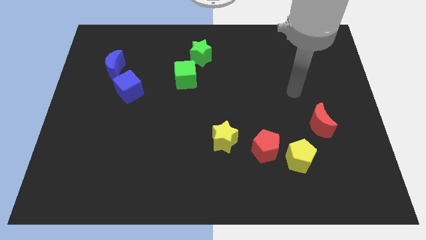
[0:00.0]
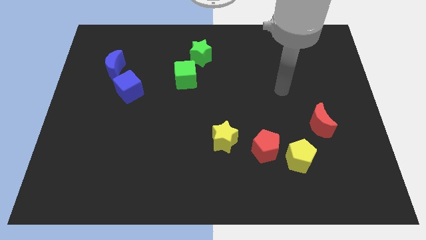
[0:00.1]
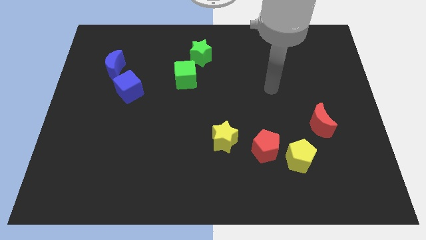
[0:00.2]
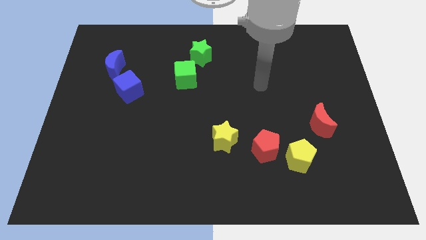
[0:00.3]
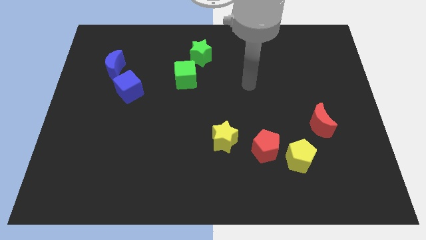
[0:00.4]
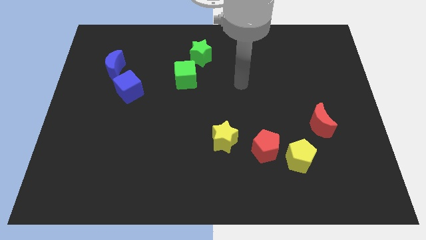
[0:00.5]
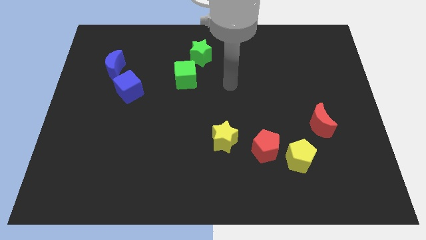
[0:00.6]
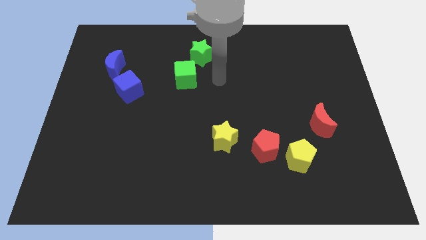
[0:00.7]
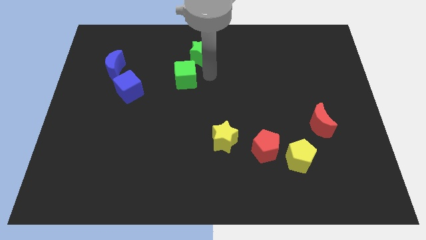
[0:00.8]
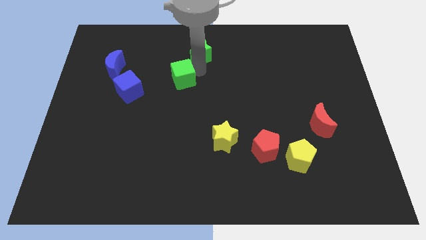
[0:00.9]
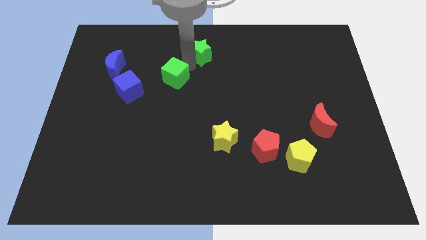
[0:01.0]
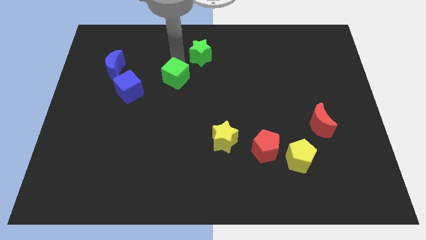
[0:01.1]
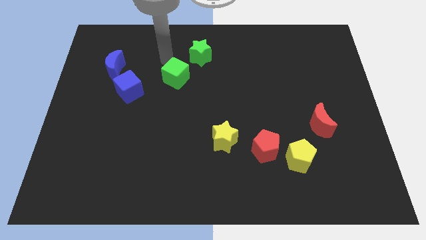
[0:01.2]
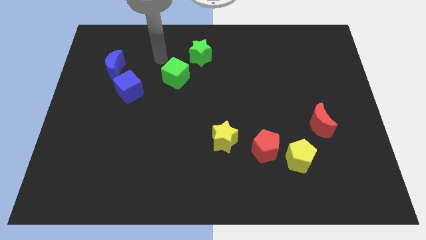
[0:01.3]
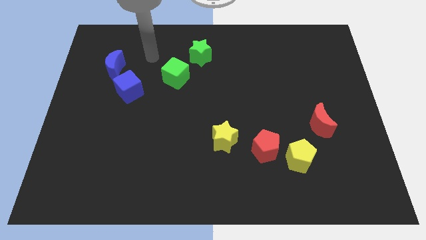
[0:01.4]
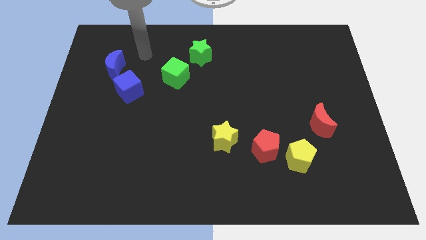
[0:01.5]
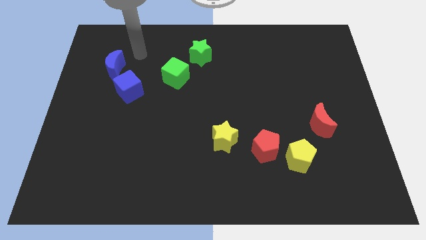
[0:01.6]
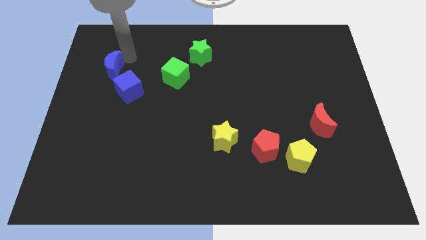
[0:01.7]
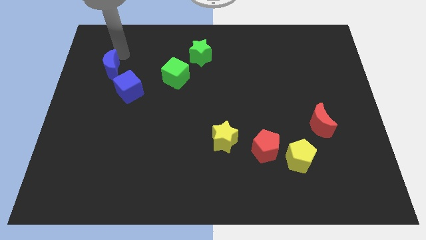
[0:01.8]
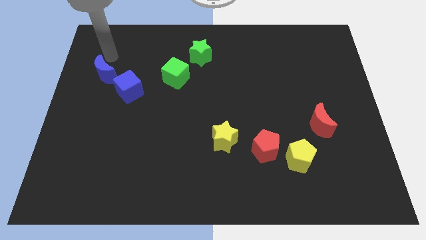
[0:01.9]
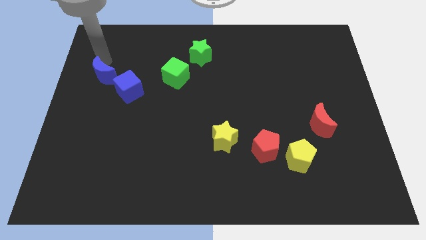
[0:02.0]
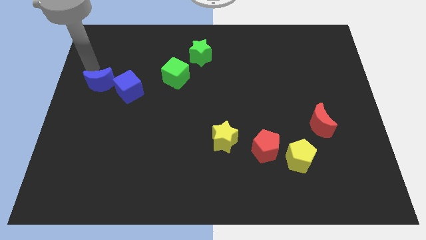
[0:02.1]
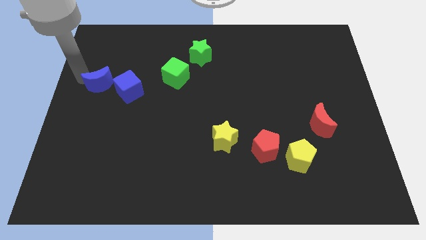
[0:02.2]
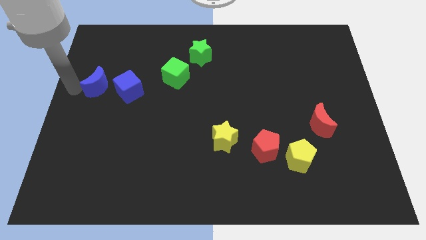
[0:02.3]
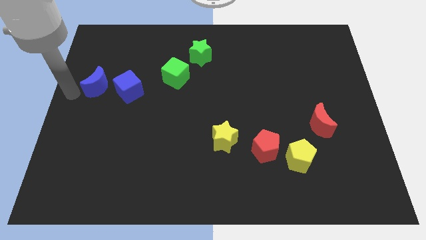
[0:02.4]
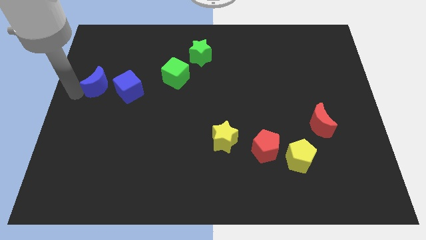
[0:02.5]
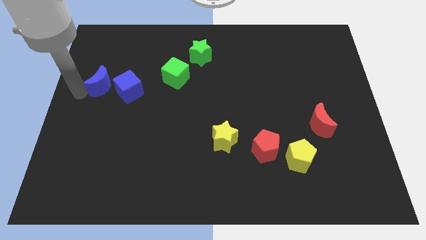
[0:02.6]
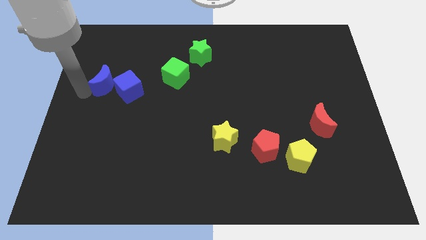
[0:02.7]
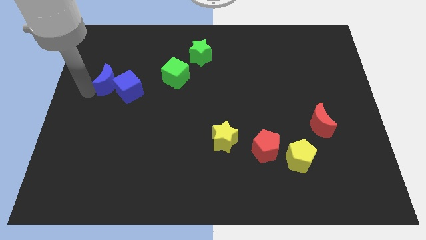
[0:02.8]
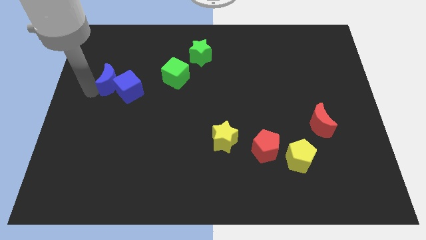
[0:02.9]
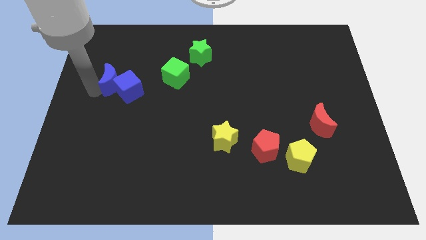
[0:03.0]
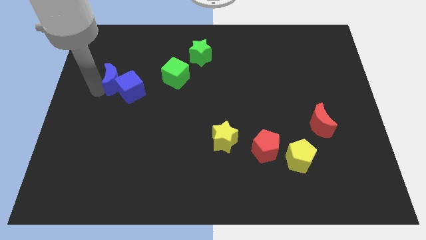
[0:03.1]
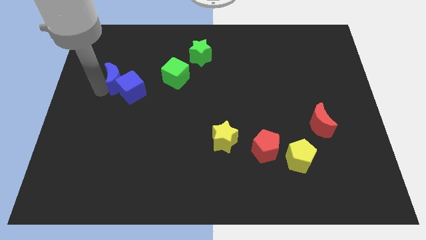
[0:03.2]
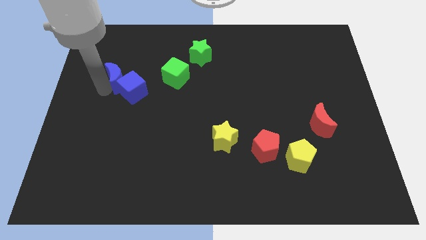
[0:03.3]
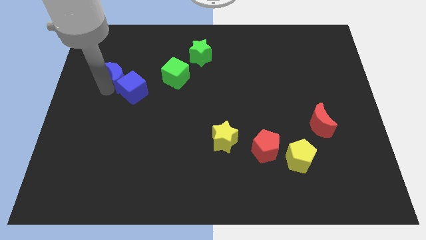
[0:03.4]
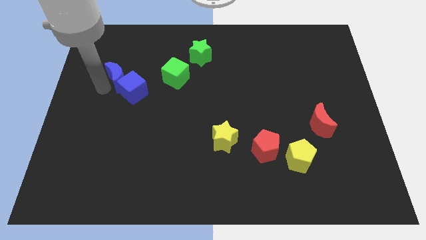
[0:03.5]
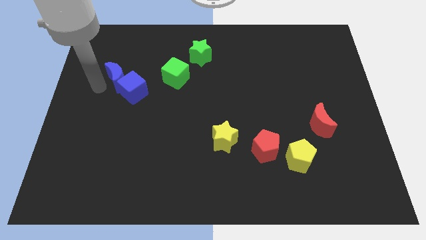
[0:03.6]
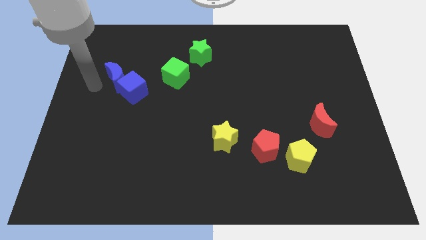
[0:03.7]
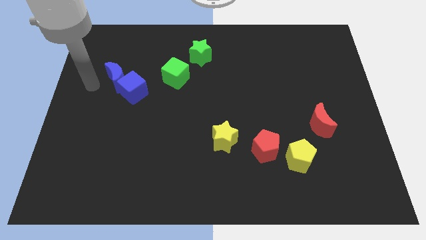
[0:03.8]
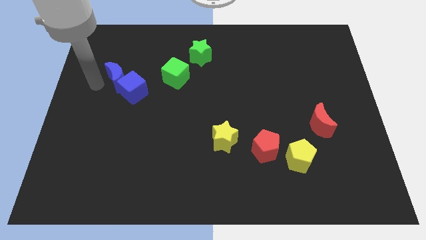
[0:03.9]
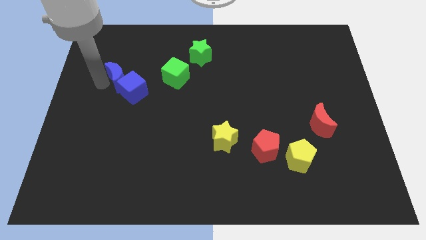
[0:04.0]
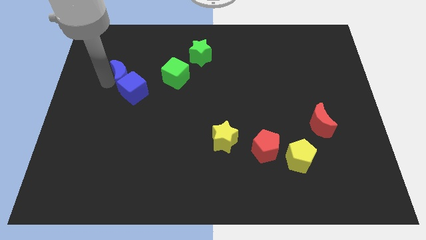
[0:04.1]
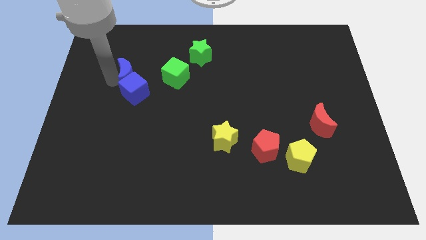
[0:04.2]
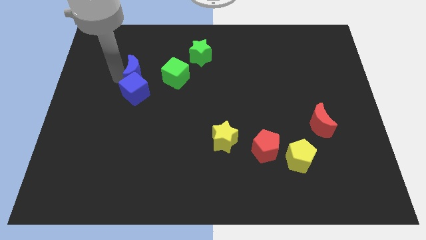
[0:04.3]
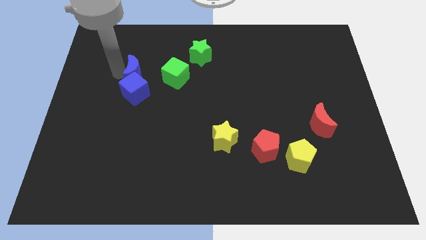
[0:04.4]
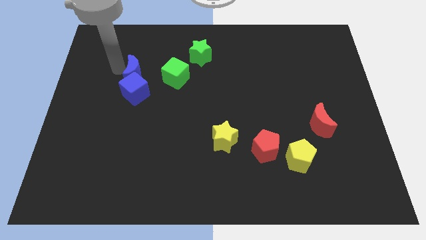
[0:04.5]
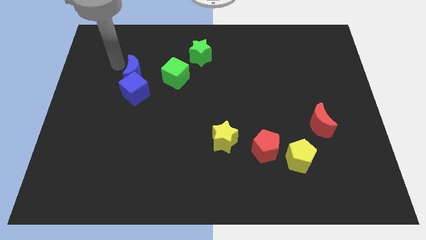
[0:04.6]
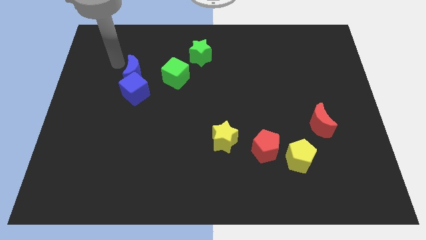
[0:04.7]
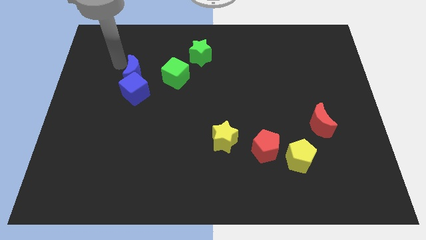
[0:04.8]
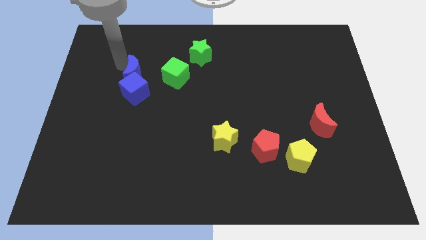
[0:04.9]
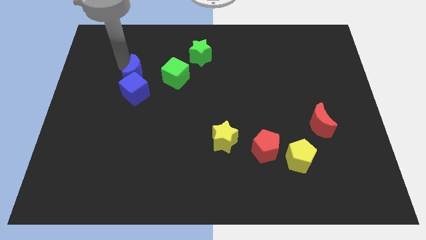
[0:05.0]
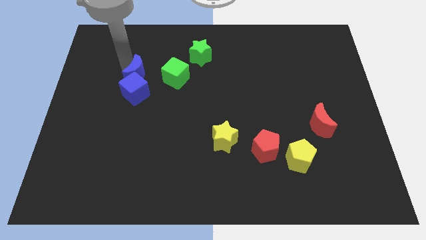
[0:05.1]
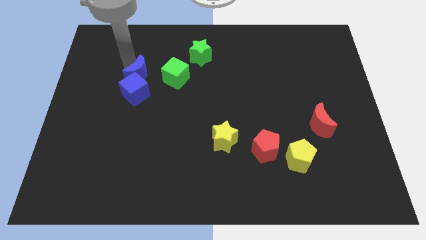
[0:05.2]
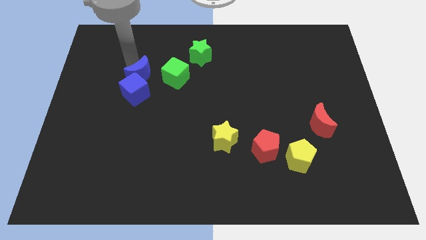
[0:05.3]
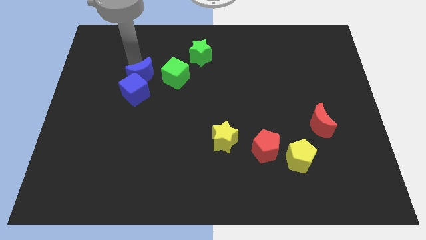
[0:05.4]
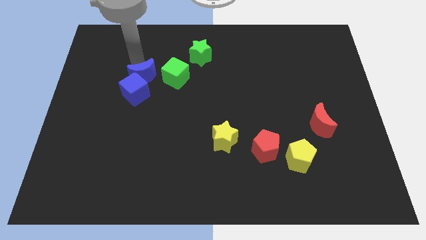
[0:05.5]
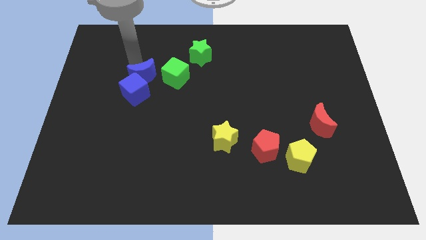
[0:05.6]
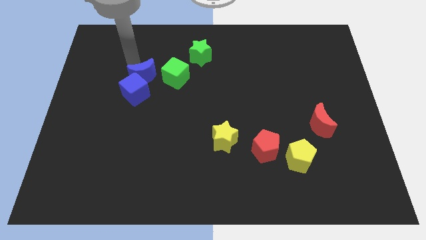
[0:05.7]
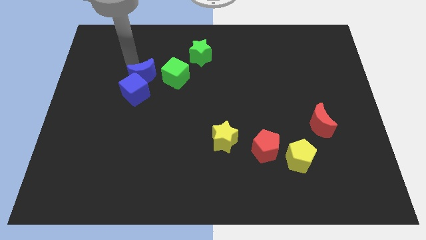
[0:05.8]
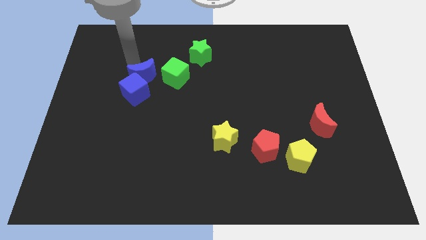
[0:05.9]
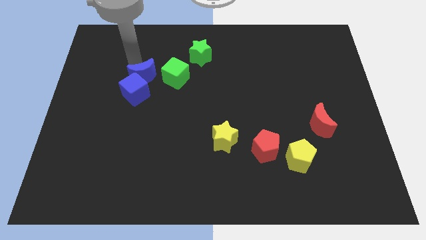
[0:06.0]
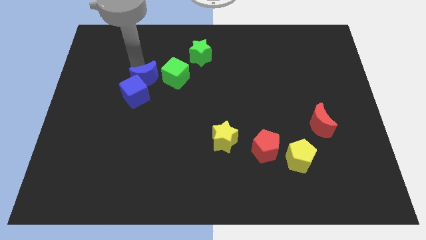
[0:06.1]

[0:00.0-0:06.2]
slide the blue moon to the bottom left side of the green cube

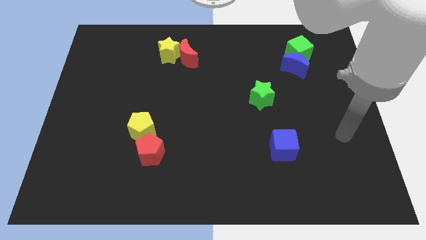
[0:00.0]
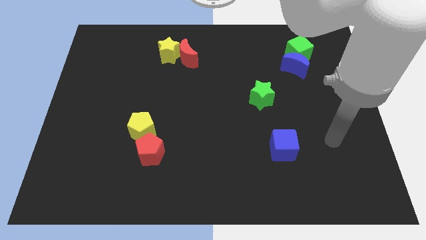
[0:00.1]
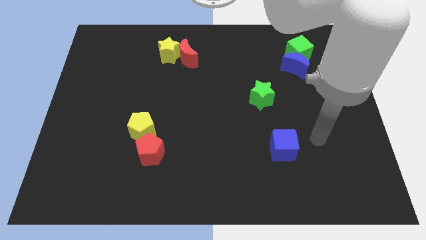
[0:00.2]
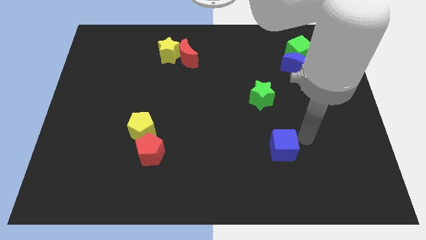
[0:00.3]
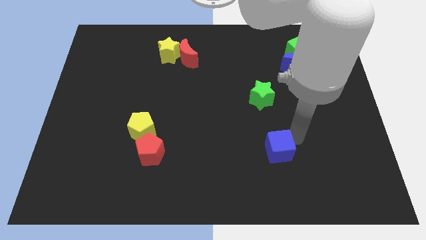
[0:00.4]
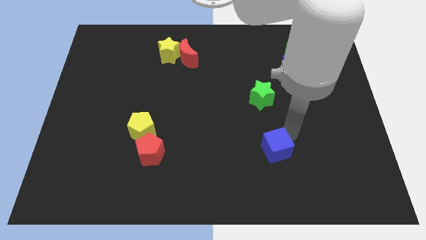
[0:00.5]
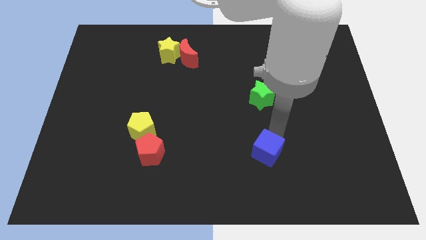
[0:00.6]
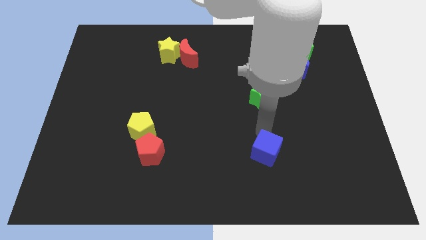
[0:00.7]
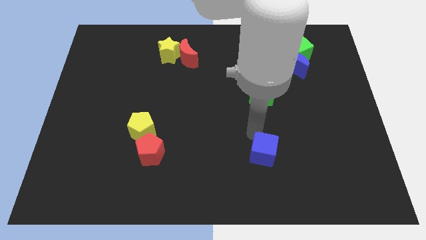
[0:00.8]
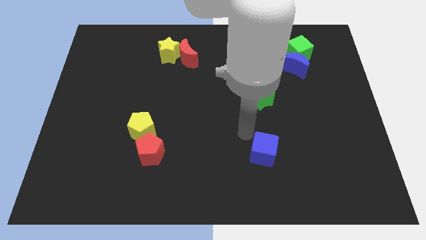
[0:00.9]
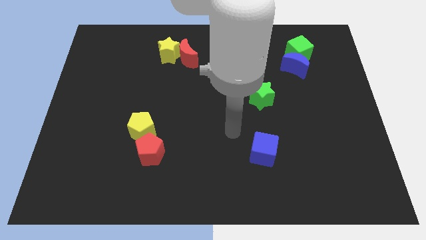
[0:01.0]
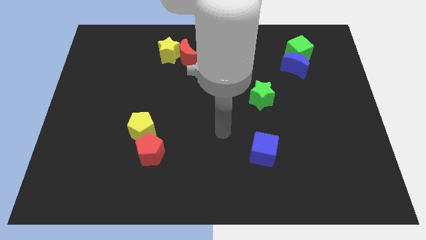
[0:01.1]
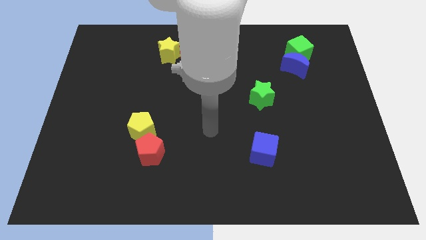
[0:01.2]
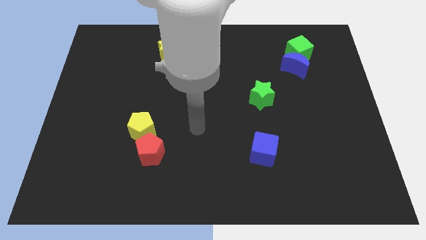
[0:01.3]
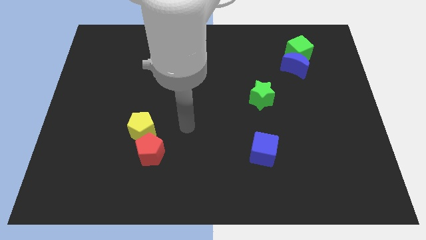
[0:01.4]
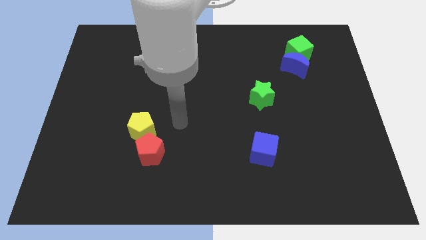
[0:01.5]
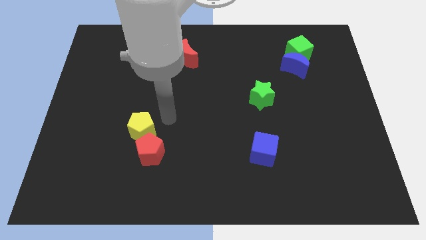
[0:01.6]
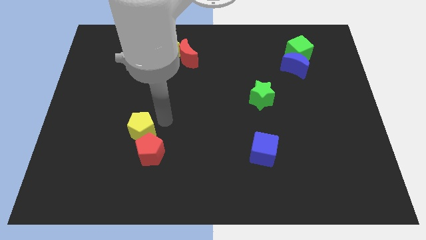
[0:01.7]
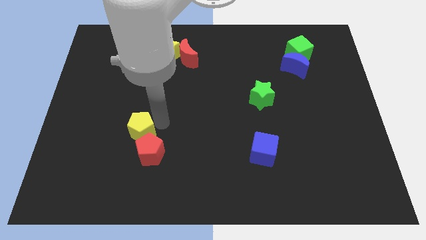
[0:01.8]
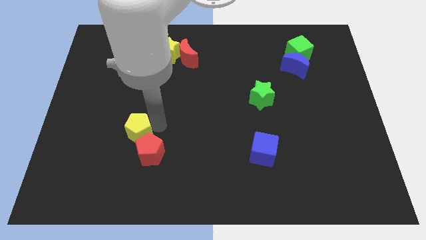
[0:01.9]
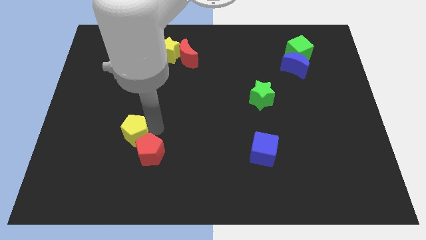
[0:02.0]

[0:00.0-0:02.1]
put the yellow pentagon left of the red pentagon
